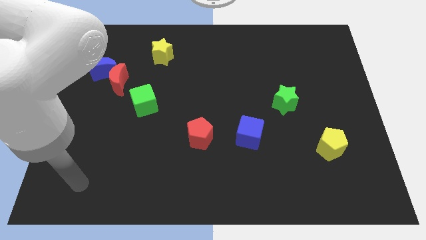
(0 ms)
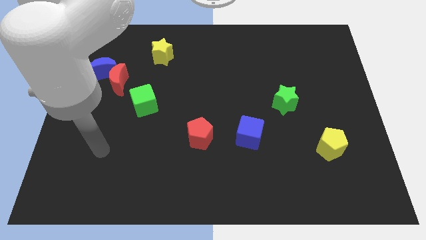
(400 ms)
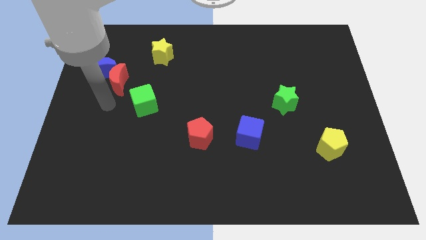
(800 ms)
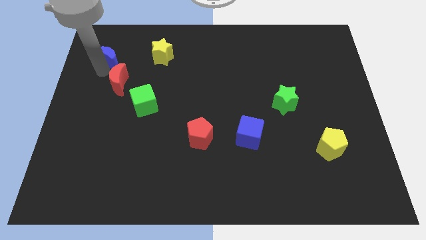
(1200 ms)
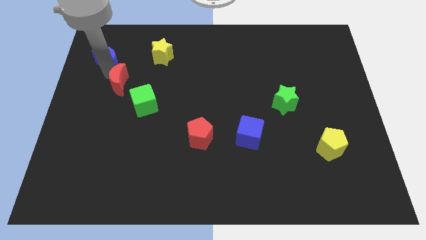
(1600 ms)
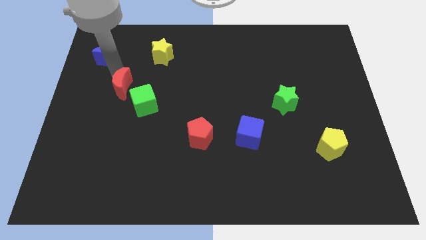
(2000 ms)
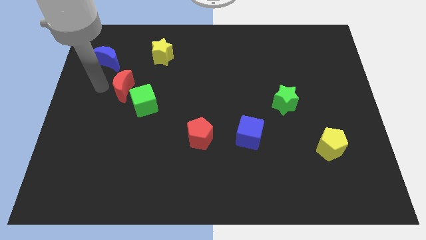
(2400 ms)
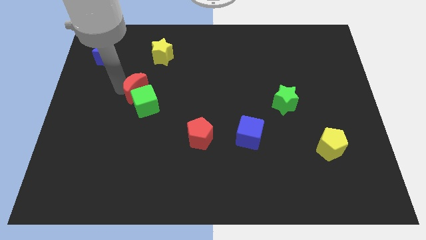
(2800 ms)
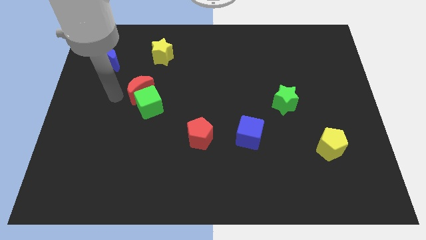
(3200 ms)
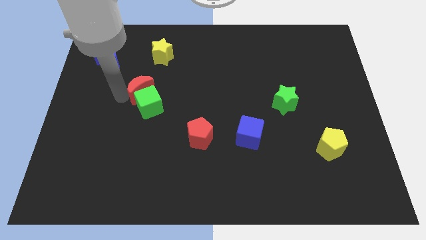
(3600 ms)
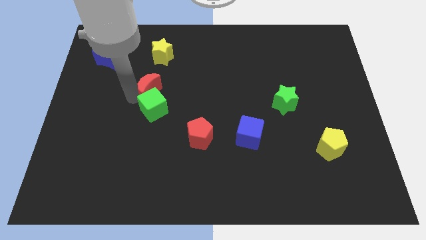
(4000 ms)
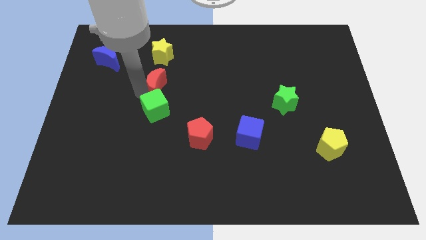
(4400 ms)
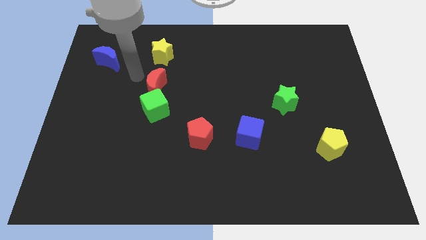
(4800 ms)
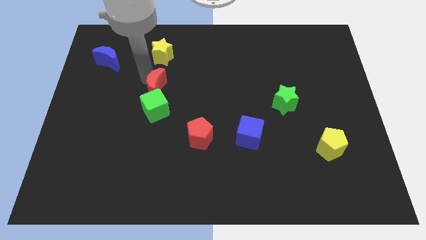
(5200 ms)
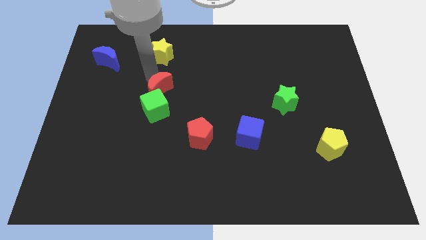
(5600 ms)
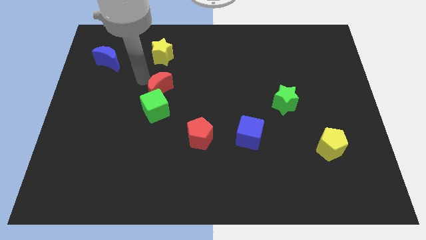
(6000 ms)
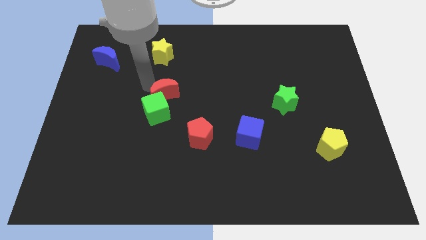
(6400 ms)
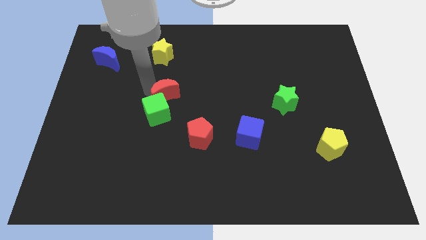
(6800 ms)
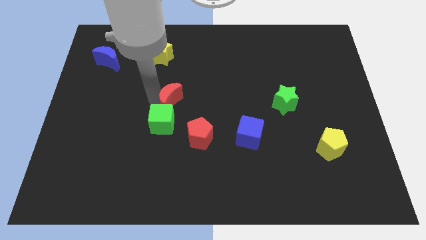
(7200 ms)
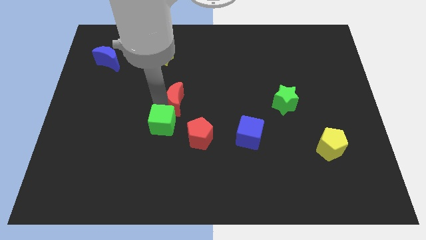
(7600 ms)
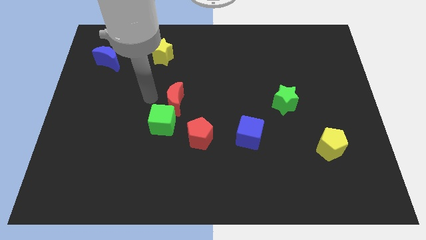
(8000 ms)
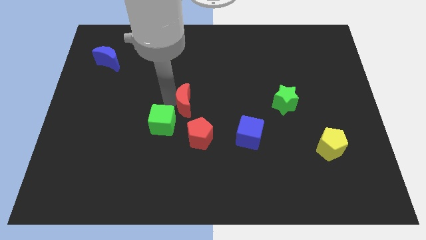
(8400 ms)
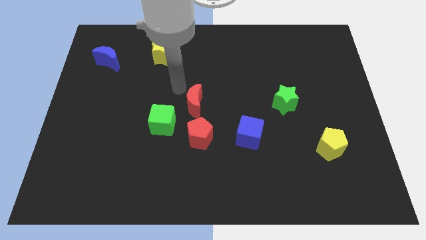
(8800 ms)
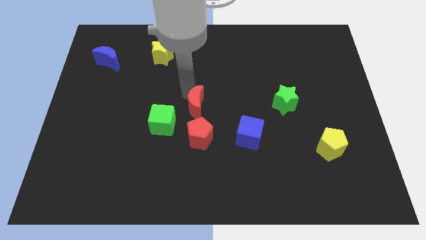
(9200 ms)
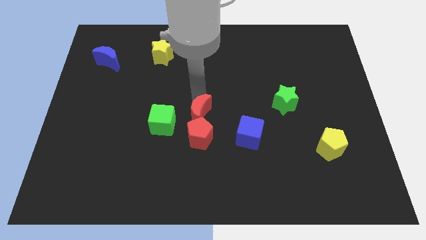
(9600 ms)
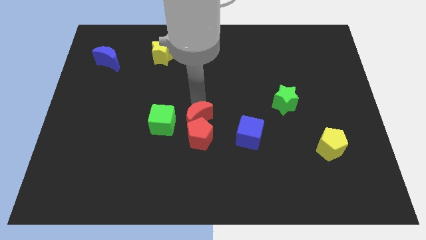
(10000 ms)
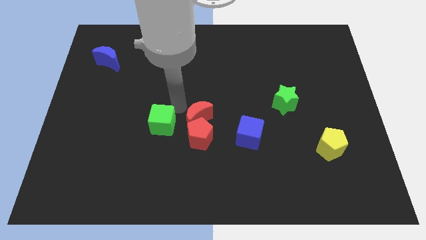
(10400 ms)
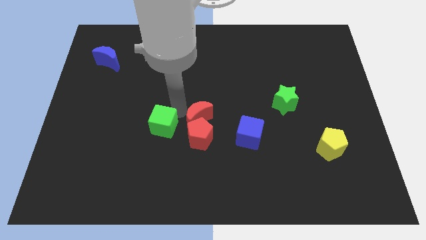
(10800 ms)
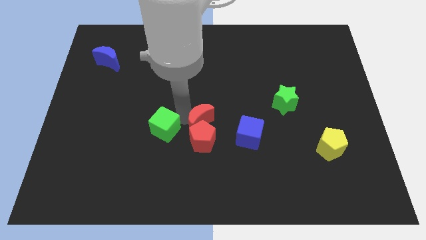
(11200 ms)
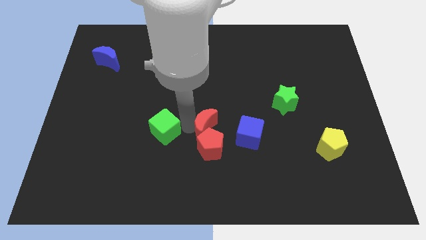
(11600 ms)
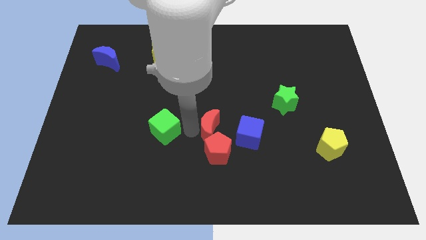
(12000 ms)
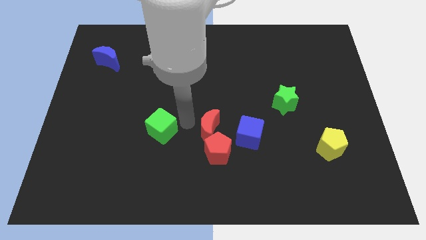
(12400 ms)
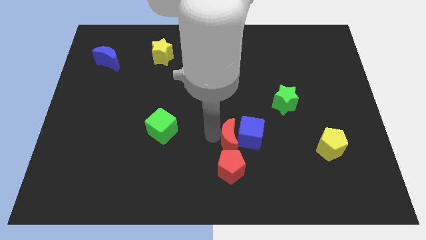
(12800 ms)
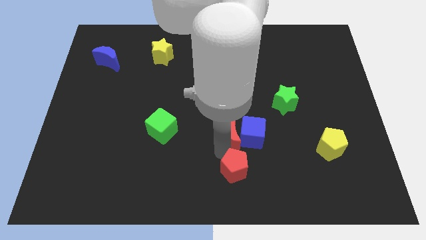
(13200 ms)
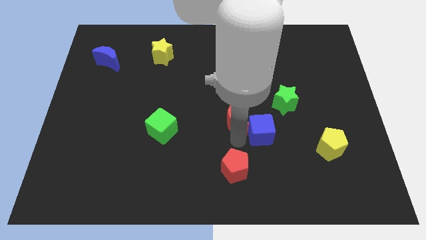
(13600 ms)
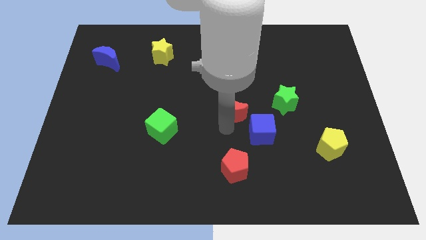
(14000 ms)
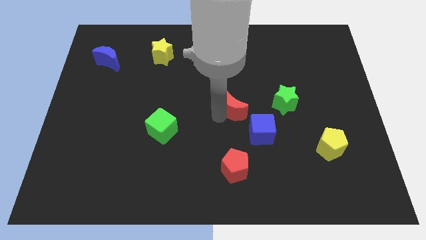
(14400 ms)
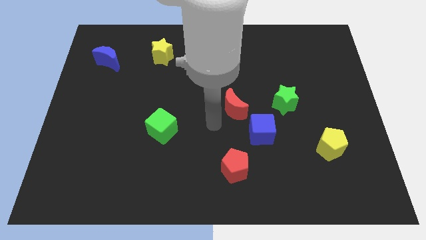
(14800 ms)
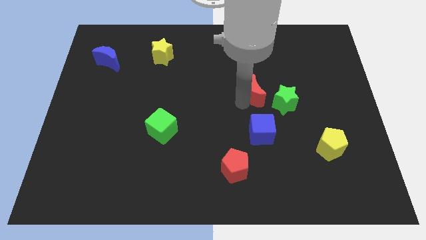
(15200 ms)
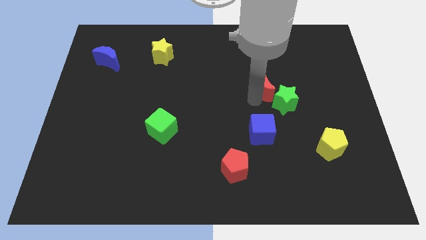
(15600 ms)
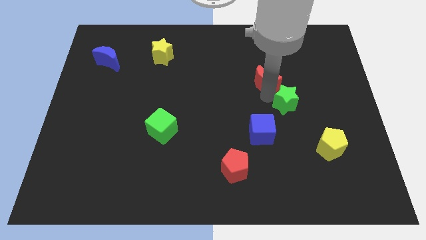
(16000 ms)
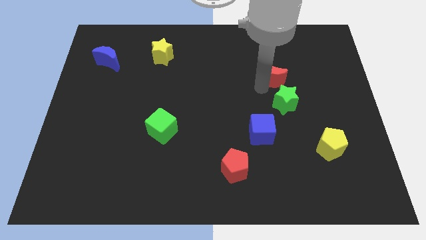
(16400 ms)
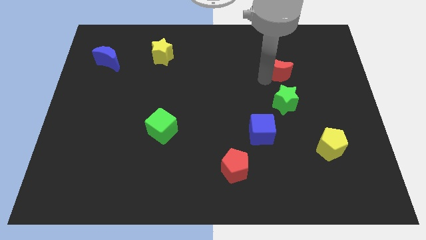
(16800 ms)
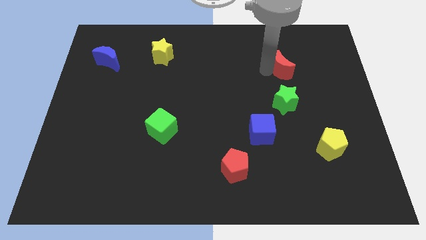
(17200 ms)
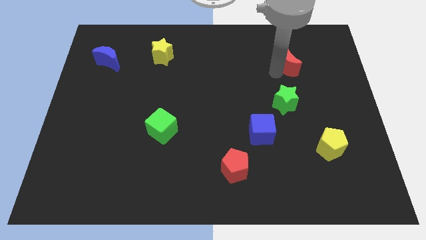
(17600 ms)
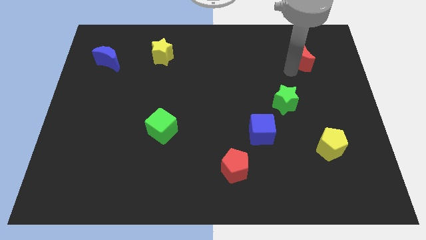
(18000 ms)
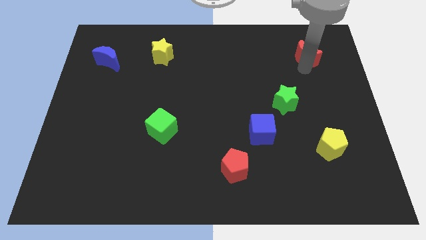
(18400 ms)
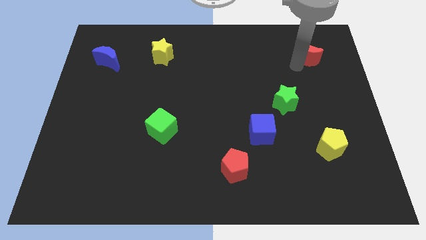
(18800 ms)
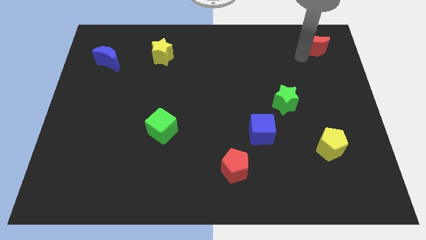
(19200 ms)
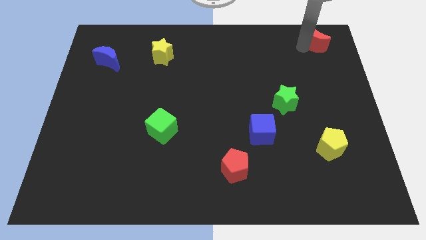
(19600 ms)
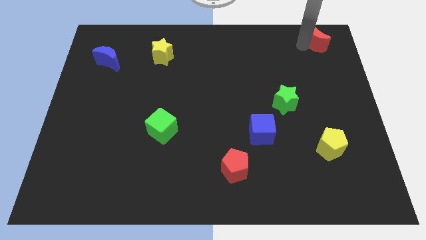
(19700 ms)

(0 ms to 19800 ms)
slide the red moon to the top right corner

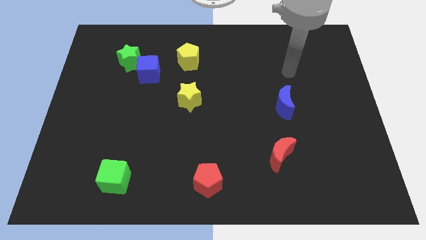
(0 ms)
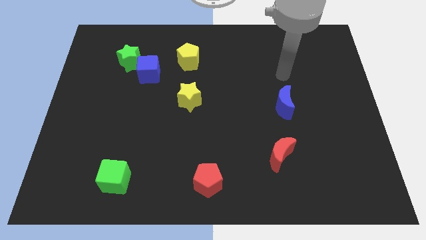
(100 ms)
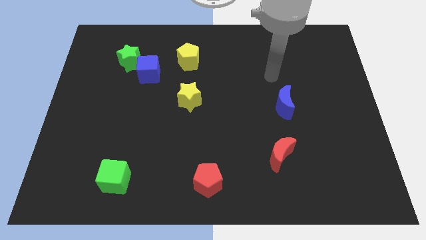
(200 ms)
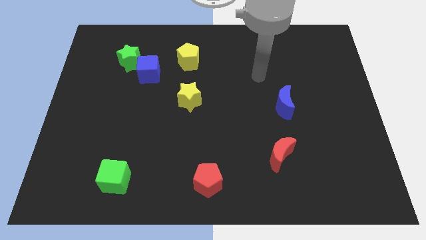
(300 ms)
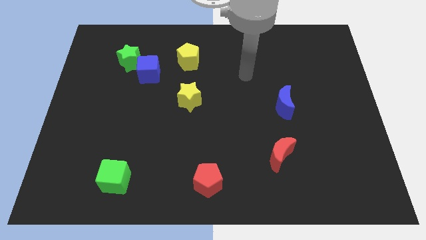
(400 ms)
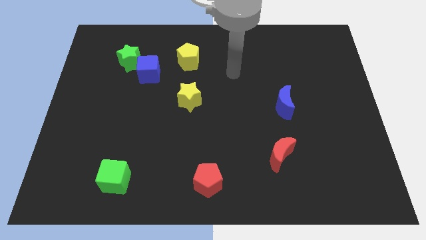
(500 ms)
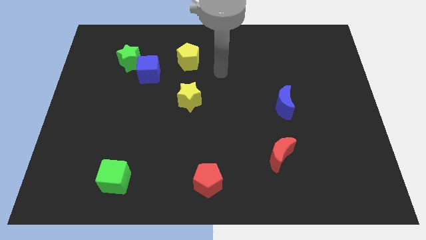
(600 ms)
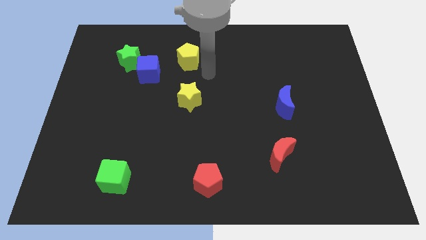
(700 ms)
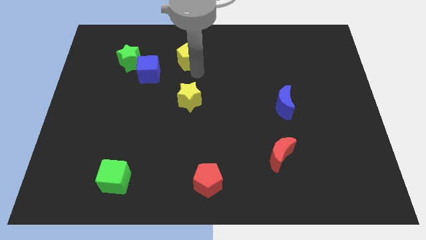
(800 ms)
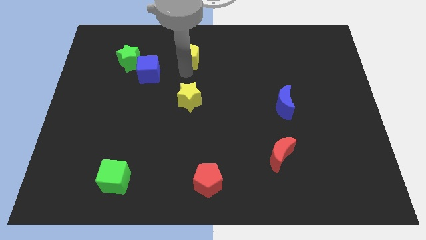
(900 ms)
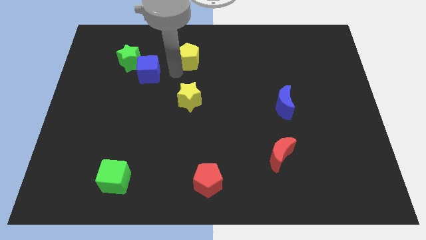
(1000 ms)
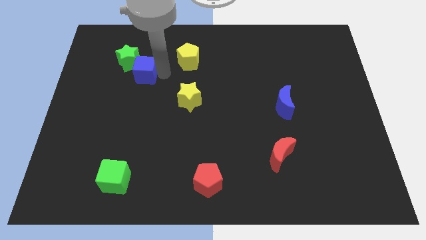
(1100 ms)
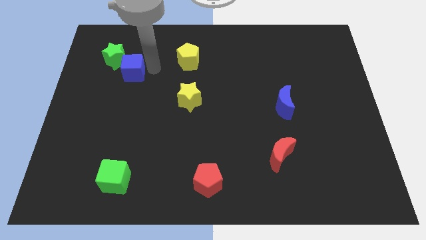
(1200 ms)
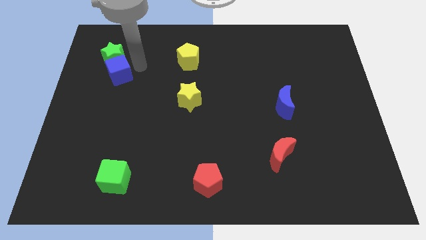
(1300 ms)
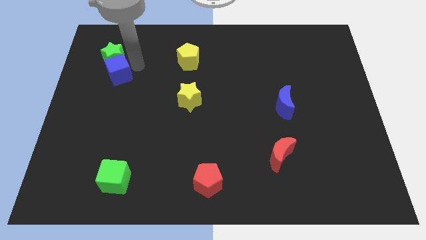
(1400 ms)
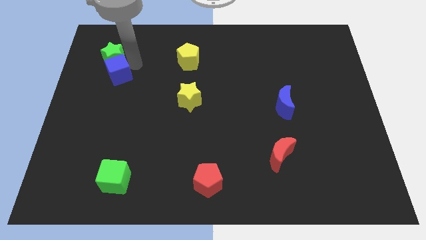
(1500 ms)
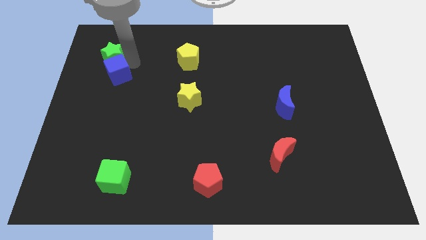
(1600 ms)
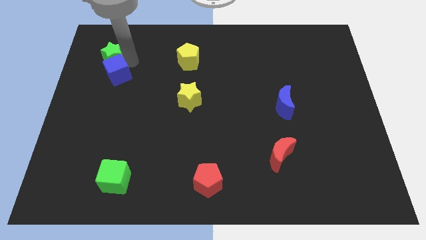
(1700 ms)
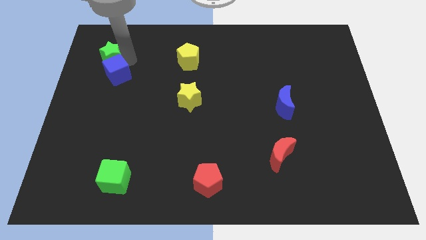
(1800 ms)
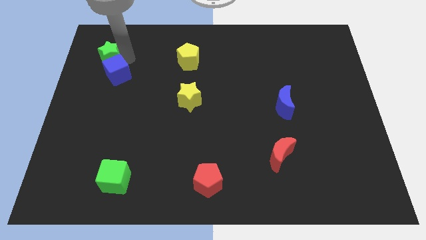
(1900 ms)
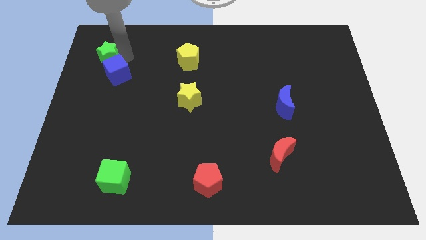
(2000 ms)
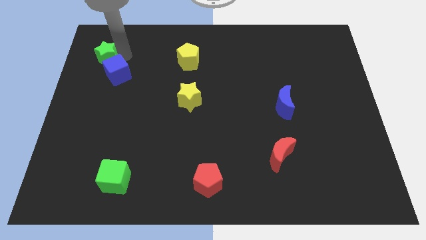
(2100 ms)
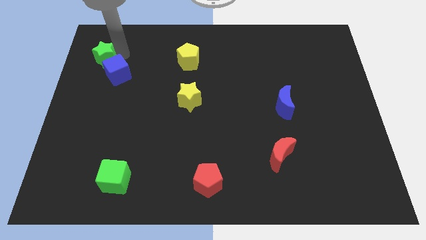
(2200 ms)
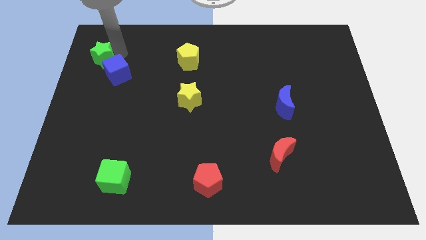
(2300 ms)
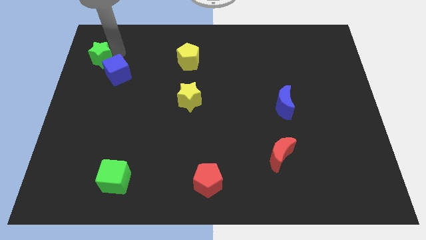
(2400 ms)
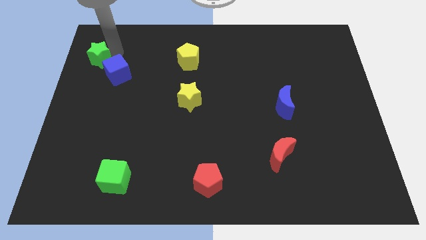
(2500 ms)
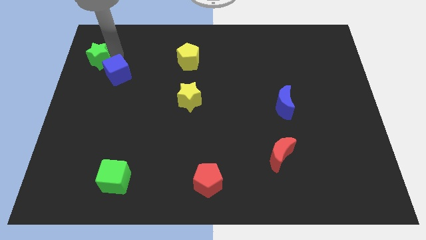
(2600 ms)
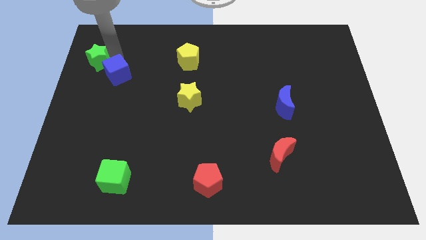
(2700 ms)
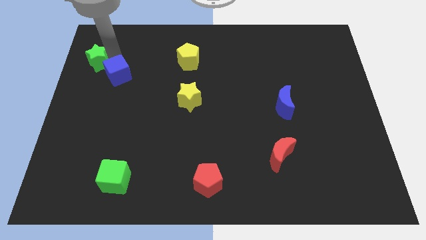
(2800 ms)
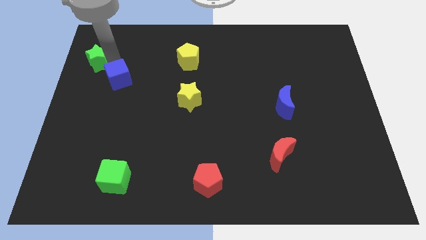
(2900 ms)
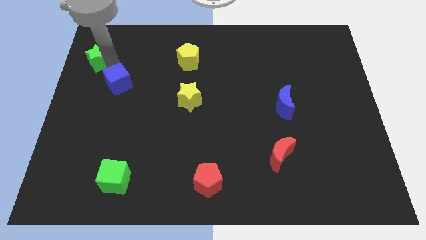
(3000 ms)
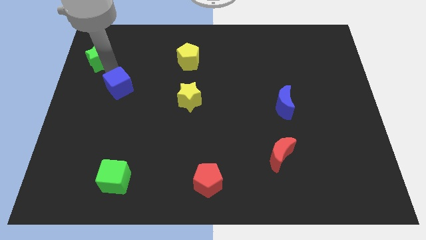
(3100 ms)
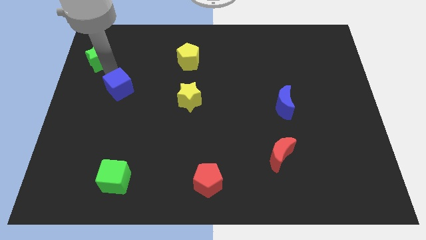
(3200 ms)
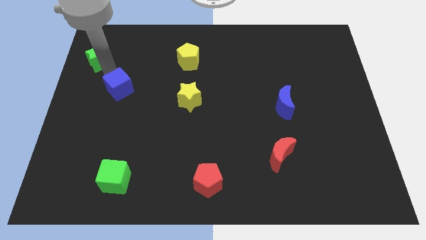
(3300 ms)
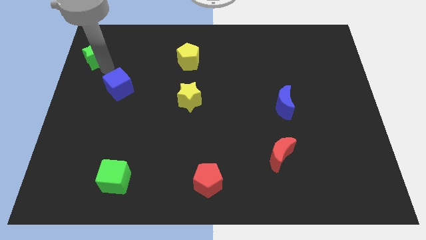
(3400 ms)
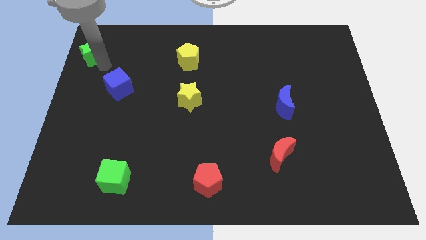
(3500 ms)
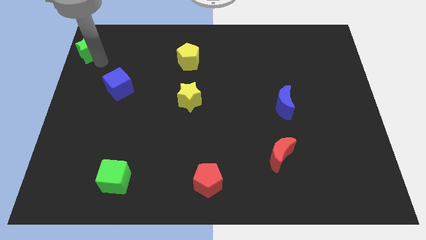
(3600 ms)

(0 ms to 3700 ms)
push the green star to the top left corner
